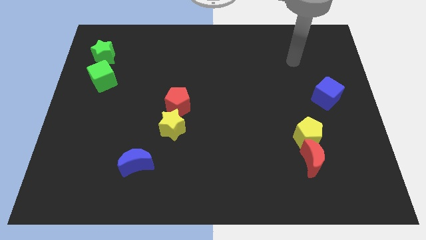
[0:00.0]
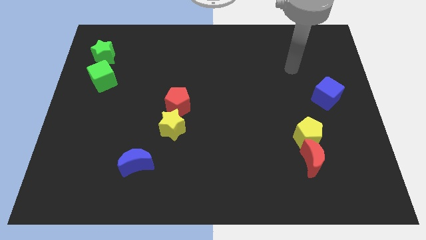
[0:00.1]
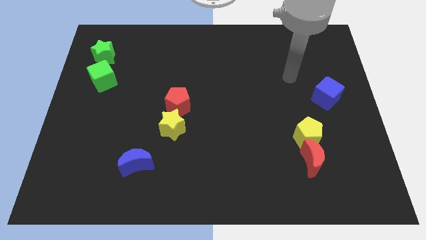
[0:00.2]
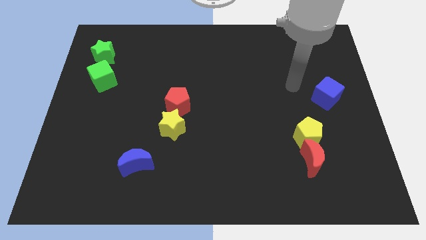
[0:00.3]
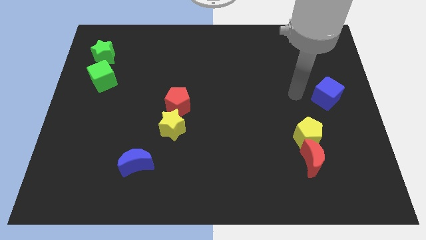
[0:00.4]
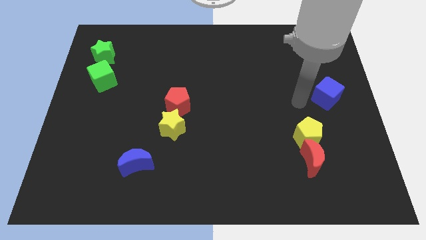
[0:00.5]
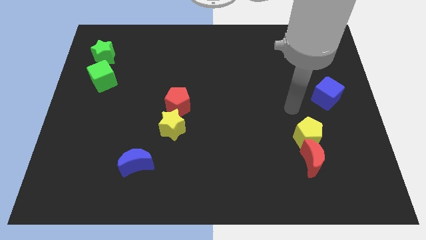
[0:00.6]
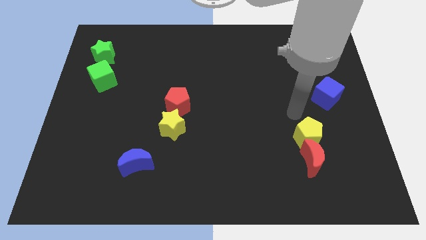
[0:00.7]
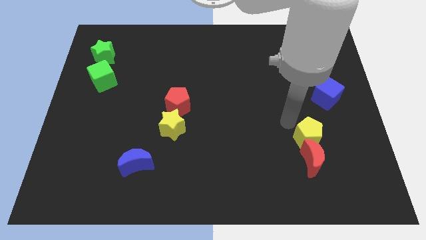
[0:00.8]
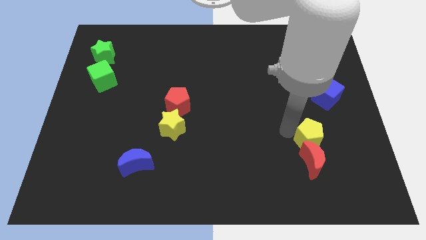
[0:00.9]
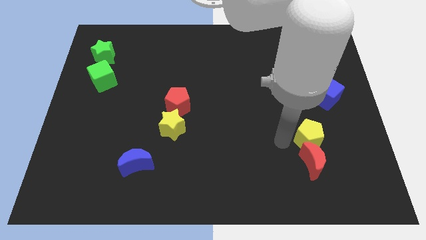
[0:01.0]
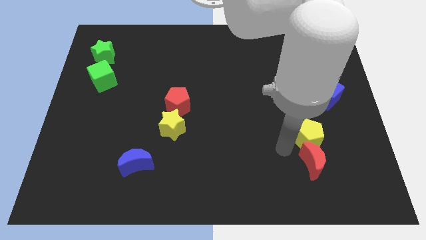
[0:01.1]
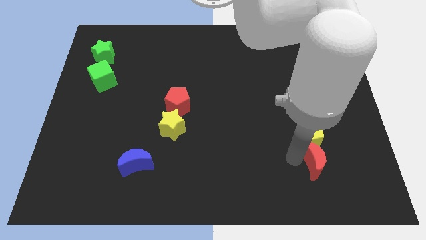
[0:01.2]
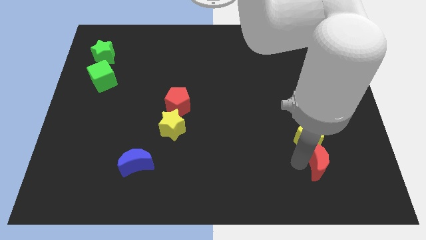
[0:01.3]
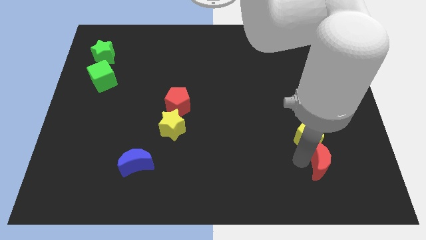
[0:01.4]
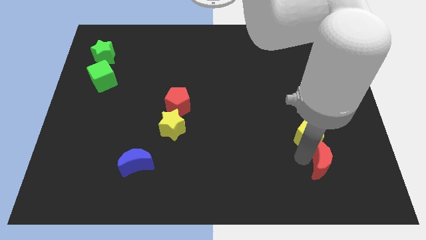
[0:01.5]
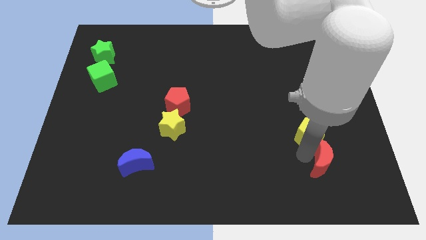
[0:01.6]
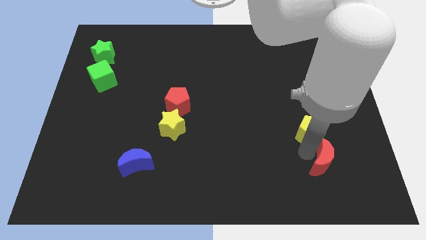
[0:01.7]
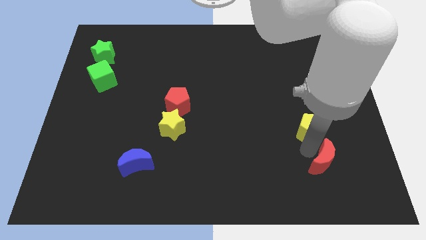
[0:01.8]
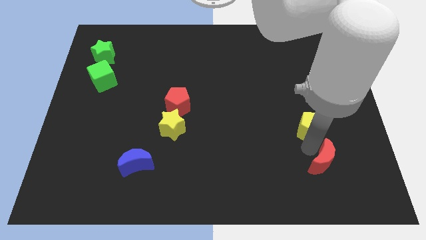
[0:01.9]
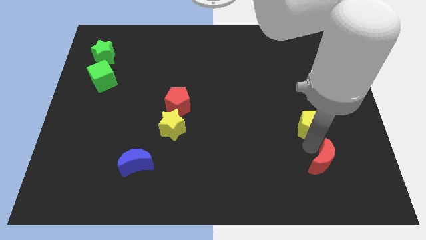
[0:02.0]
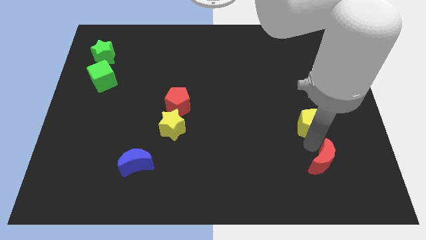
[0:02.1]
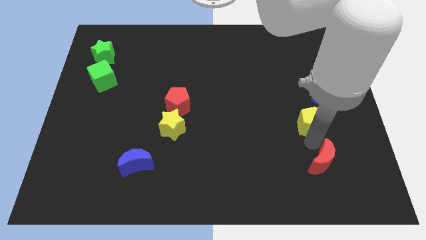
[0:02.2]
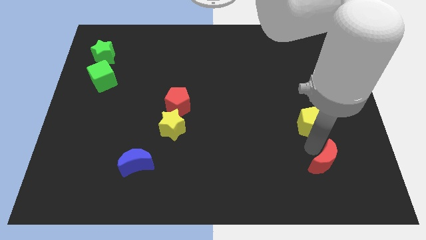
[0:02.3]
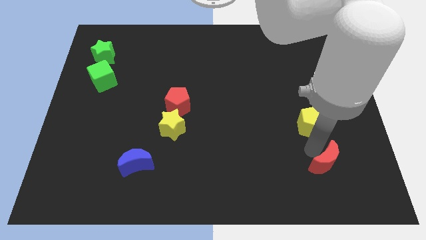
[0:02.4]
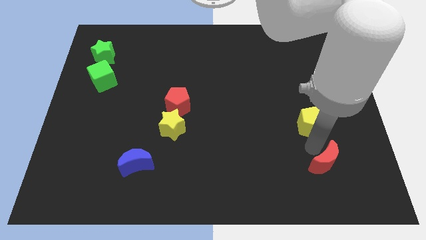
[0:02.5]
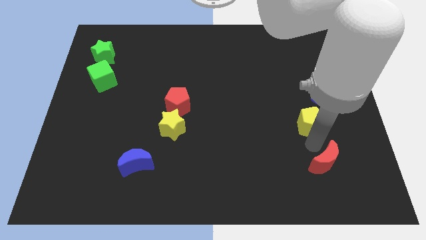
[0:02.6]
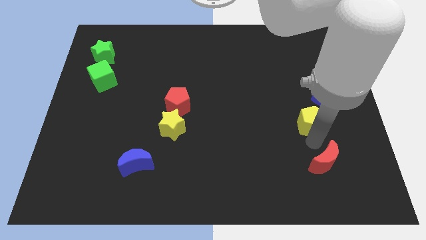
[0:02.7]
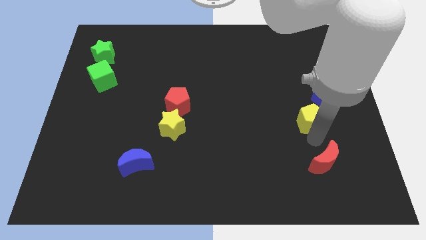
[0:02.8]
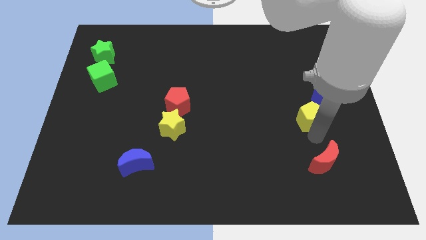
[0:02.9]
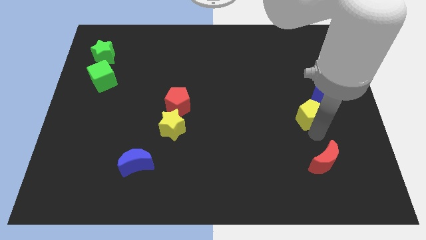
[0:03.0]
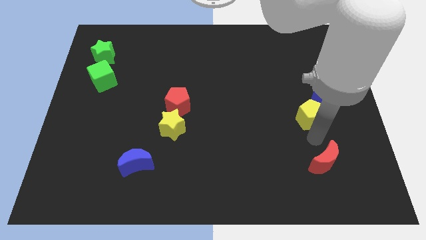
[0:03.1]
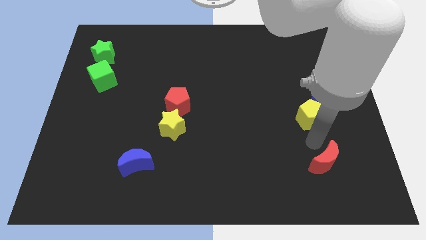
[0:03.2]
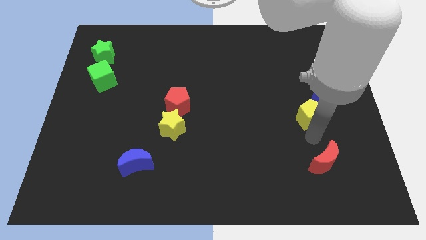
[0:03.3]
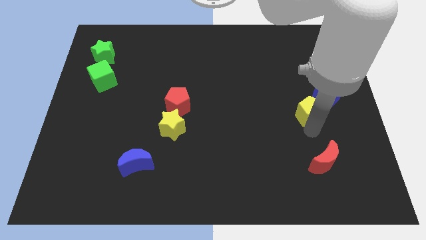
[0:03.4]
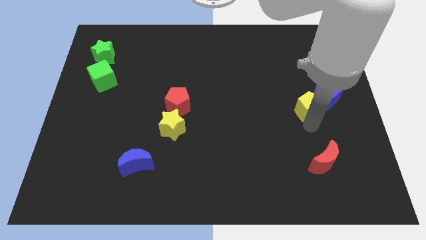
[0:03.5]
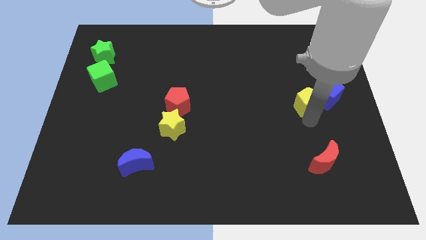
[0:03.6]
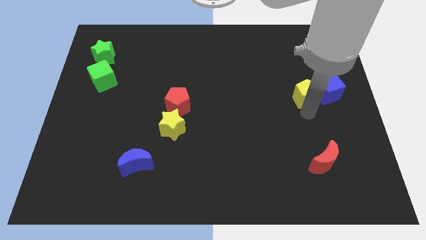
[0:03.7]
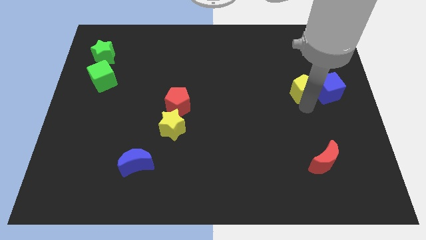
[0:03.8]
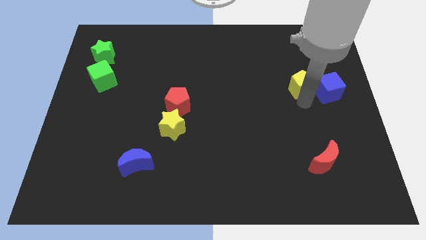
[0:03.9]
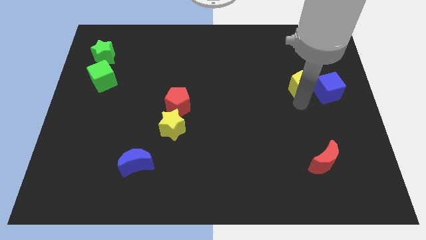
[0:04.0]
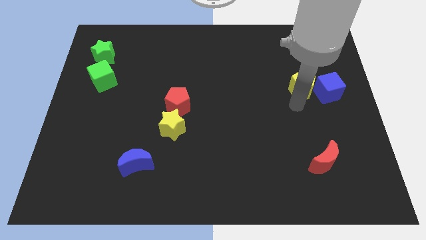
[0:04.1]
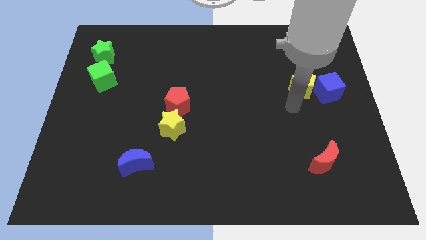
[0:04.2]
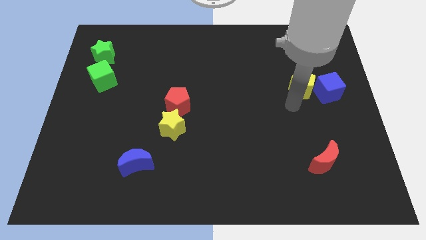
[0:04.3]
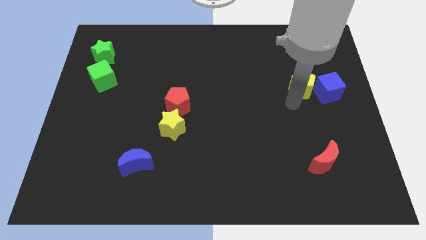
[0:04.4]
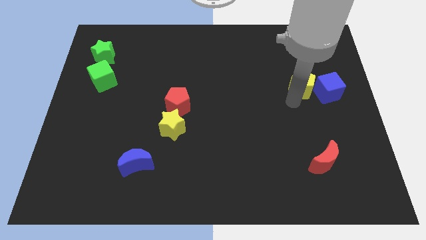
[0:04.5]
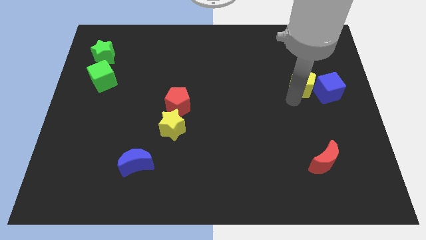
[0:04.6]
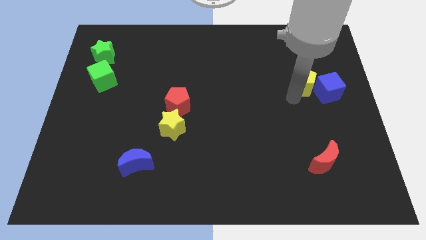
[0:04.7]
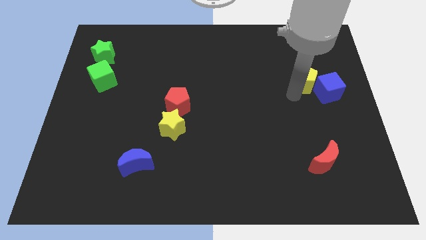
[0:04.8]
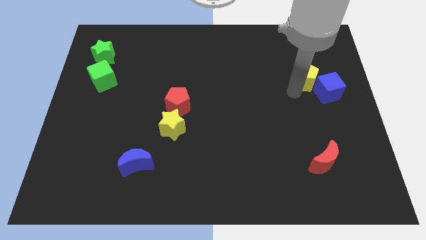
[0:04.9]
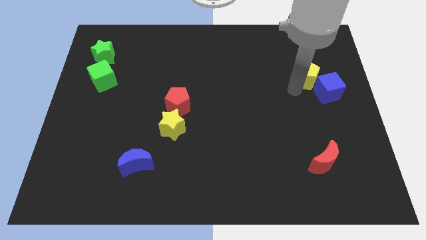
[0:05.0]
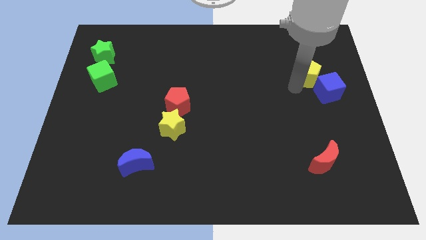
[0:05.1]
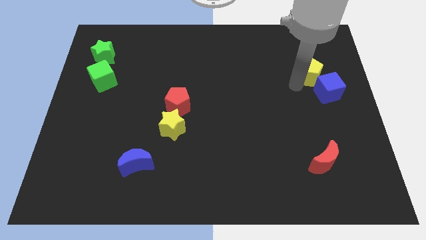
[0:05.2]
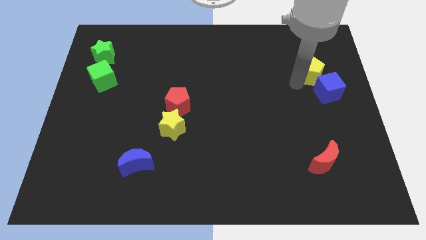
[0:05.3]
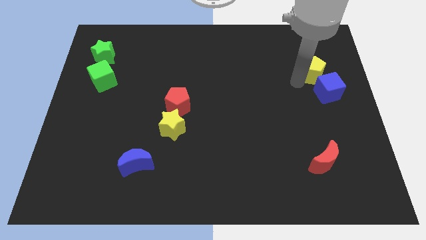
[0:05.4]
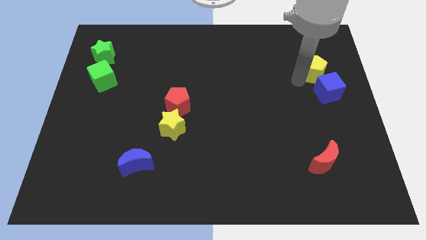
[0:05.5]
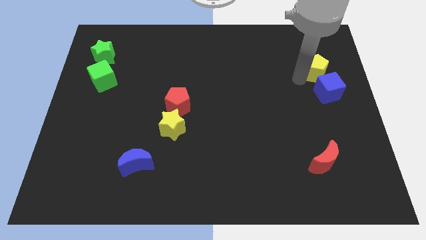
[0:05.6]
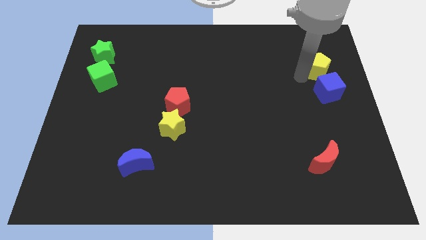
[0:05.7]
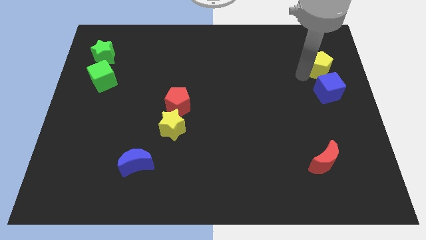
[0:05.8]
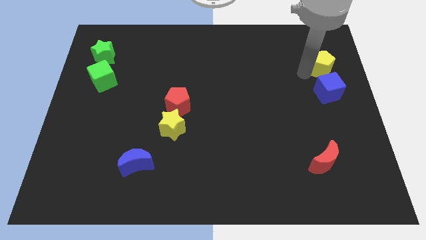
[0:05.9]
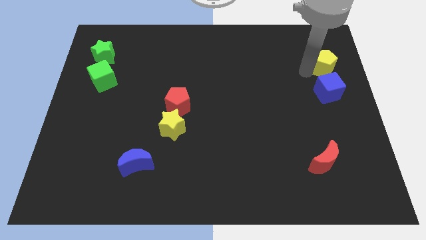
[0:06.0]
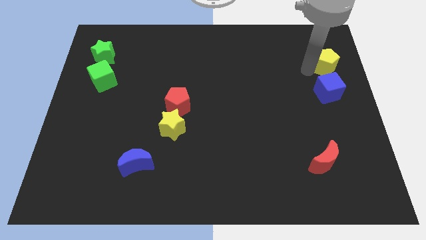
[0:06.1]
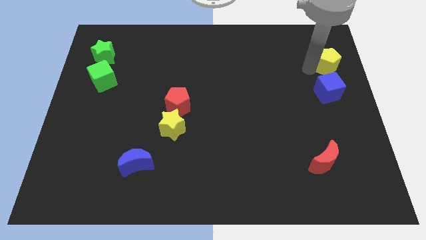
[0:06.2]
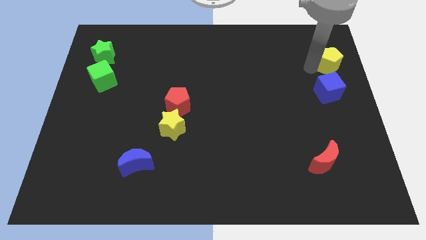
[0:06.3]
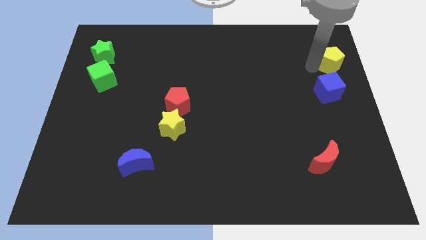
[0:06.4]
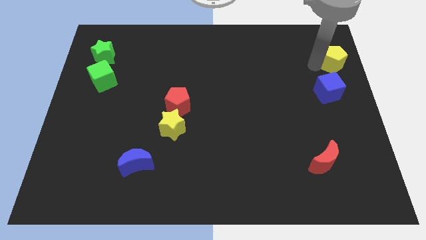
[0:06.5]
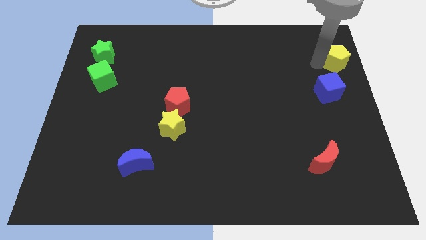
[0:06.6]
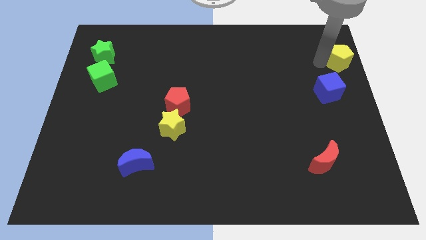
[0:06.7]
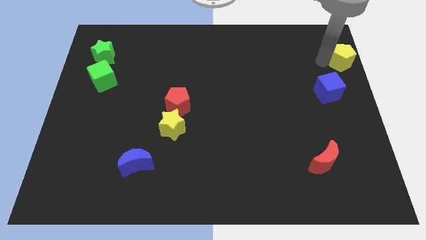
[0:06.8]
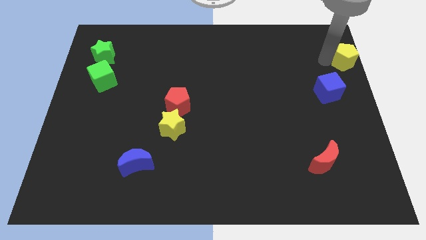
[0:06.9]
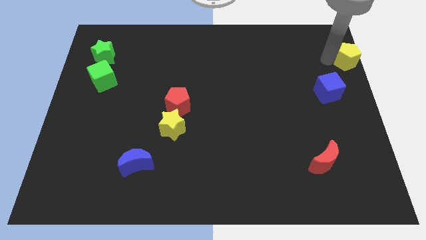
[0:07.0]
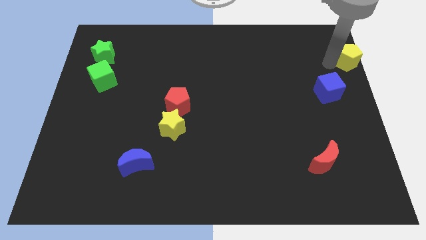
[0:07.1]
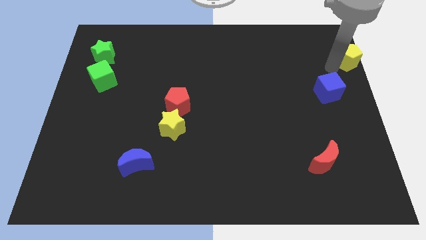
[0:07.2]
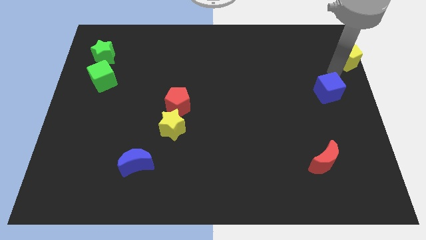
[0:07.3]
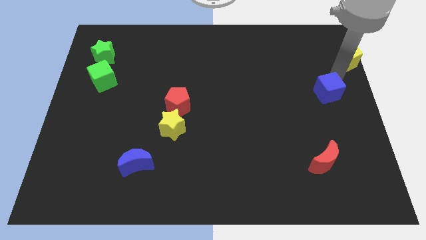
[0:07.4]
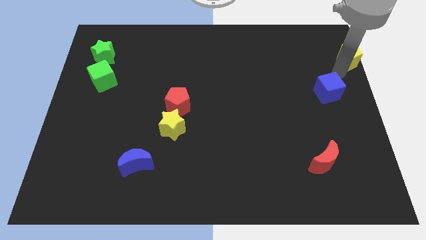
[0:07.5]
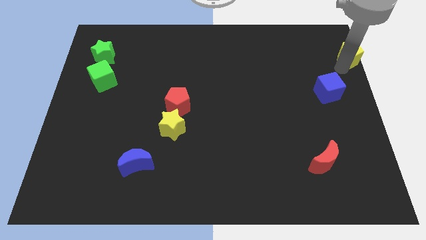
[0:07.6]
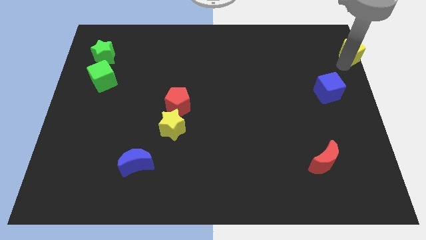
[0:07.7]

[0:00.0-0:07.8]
push the yellow pentagon to the top right
